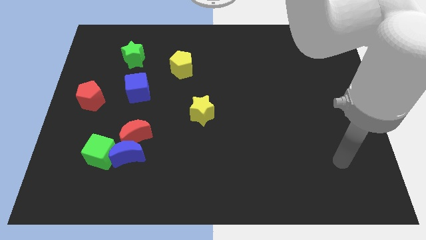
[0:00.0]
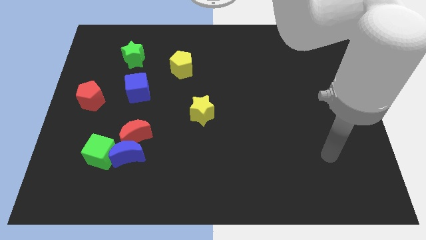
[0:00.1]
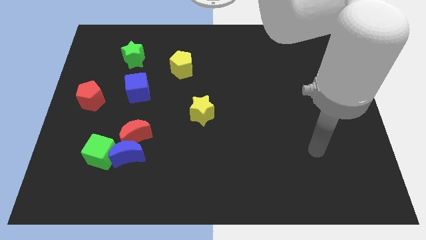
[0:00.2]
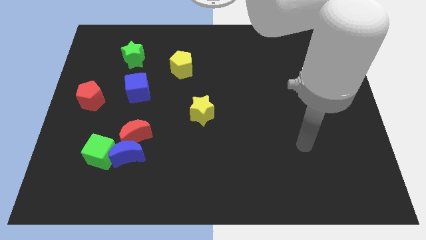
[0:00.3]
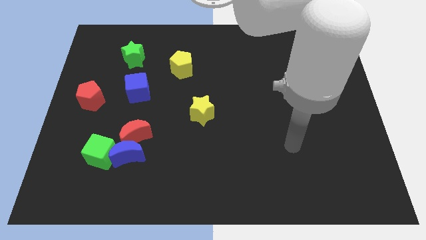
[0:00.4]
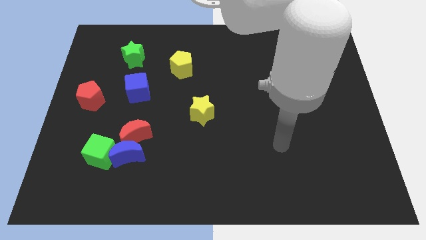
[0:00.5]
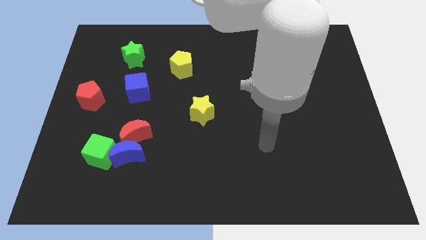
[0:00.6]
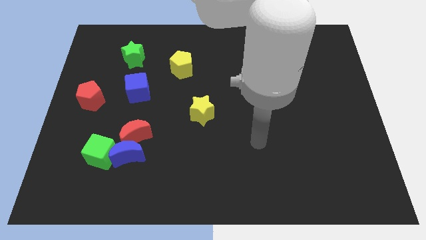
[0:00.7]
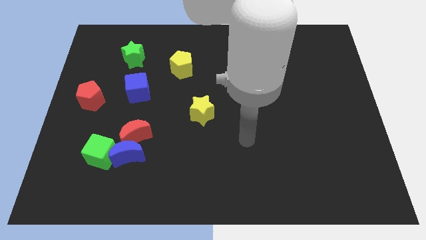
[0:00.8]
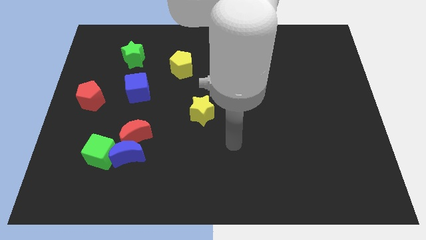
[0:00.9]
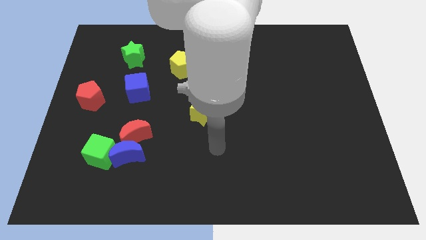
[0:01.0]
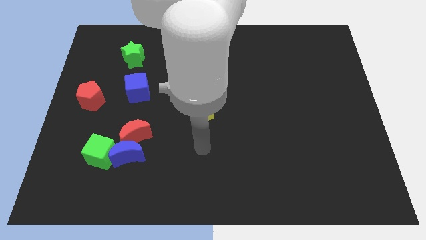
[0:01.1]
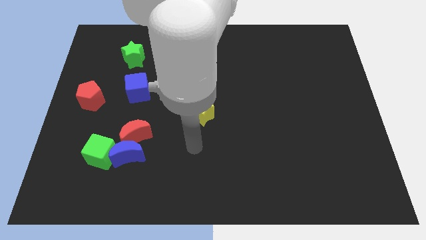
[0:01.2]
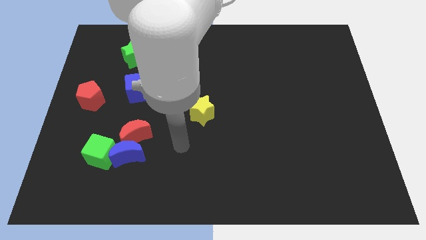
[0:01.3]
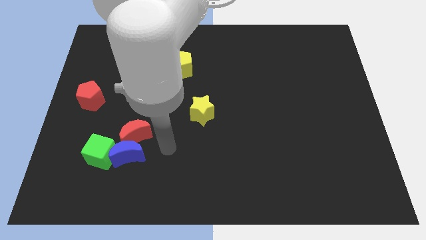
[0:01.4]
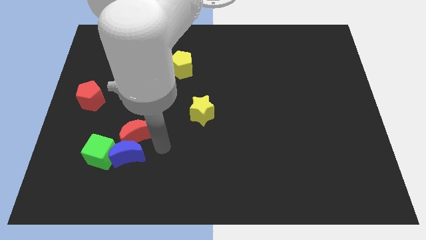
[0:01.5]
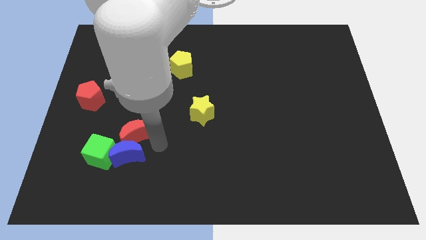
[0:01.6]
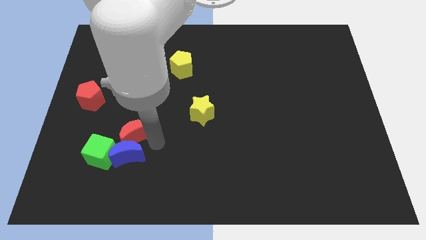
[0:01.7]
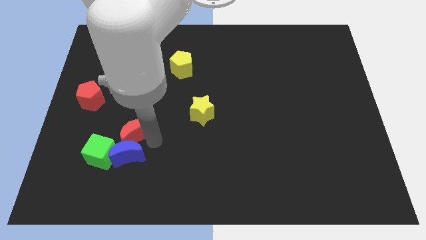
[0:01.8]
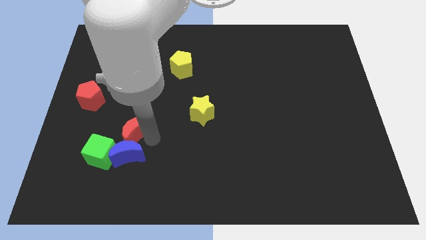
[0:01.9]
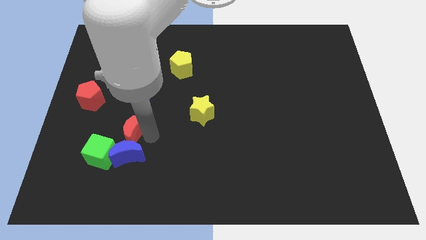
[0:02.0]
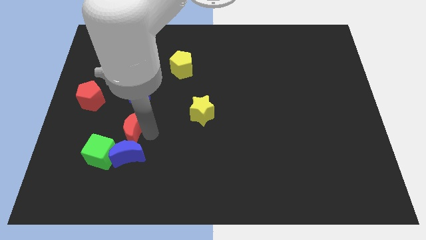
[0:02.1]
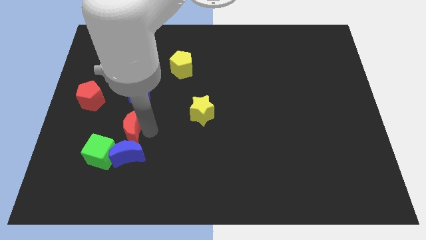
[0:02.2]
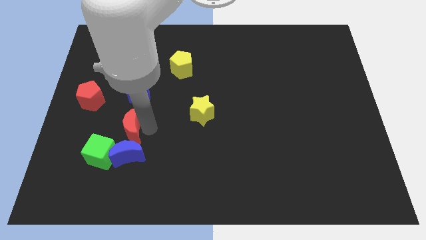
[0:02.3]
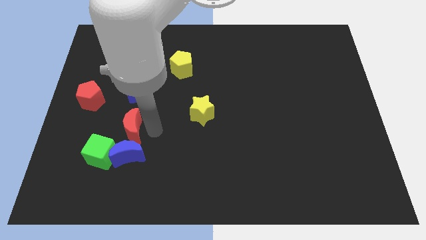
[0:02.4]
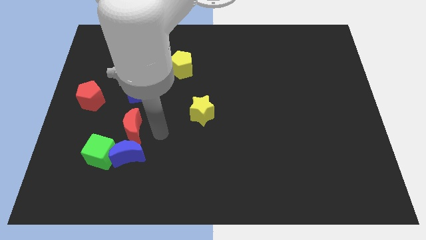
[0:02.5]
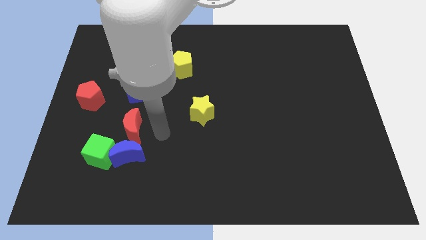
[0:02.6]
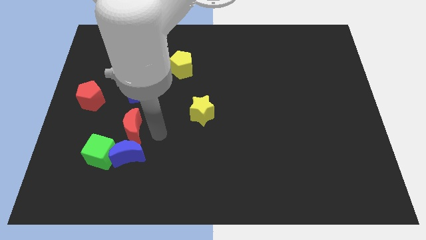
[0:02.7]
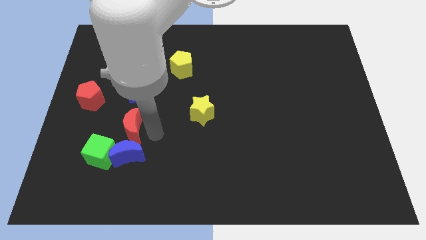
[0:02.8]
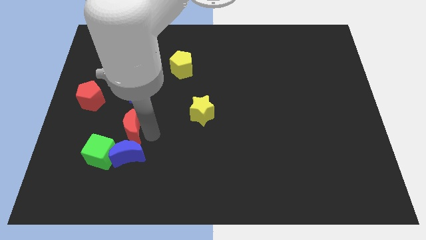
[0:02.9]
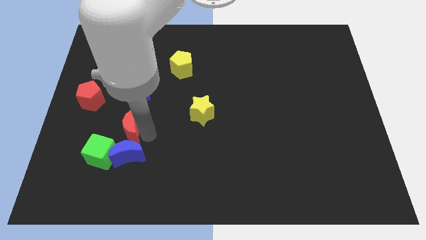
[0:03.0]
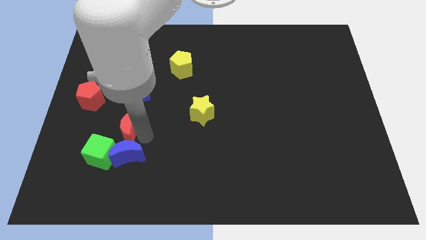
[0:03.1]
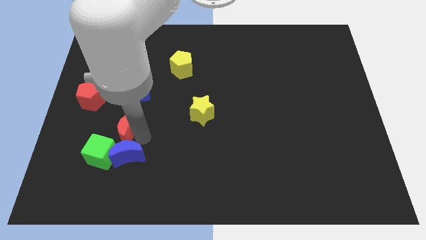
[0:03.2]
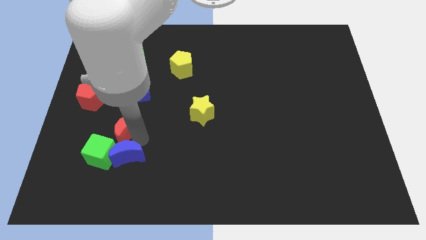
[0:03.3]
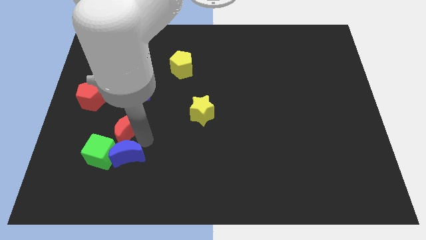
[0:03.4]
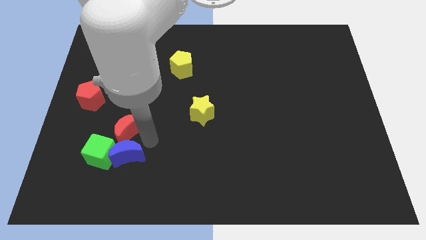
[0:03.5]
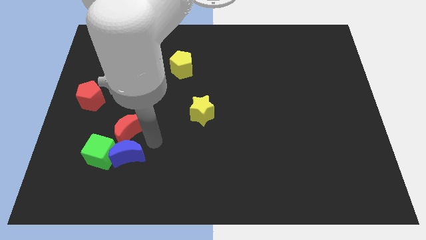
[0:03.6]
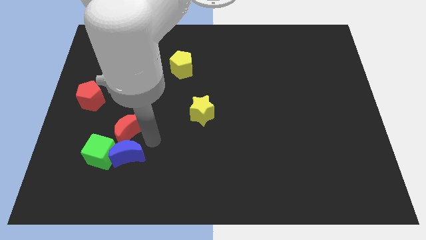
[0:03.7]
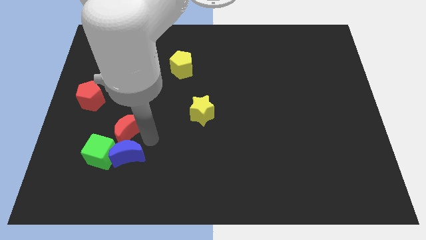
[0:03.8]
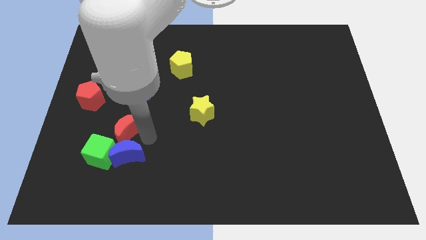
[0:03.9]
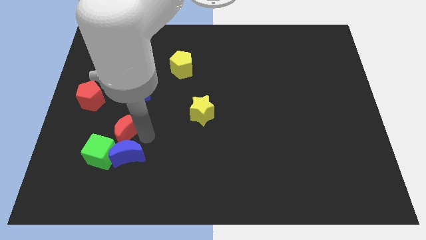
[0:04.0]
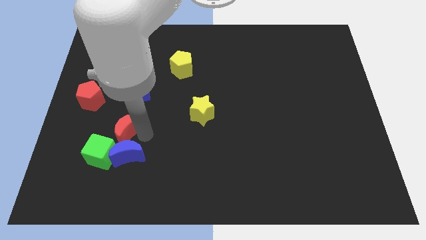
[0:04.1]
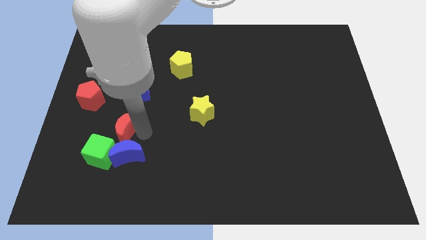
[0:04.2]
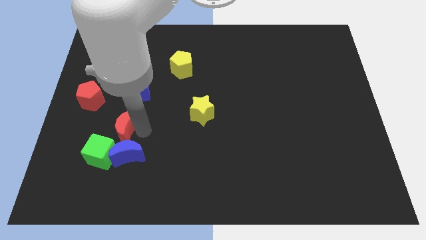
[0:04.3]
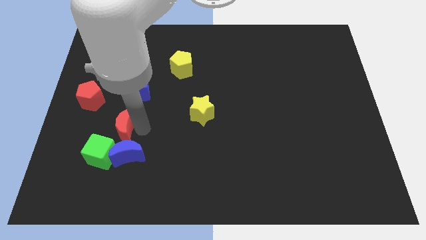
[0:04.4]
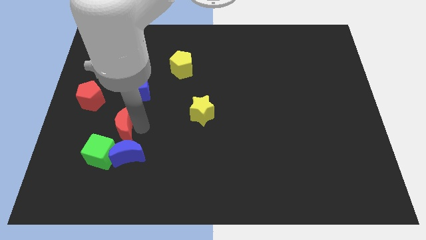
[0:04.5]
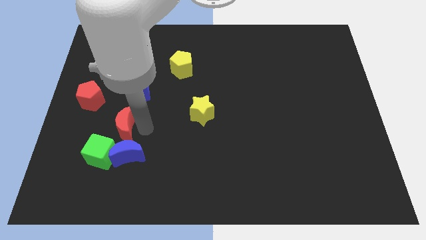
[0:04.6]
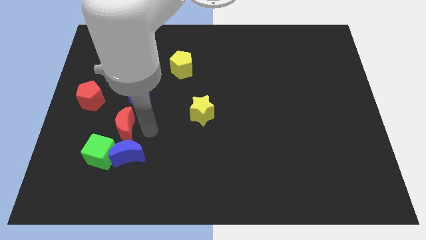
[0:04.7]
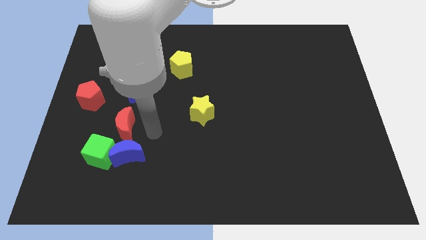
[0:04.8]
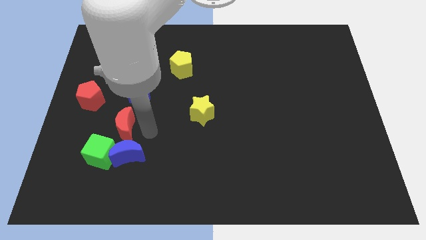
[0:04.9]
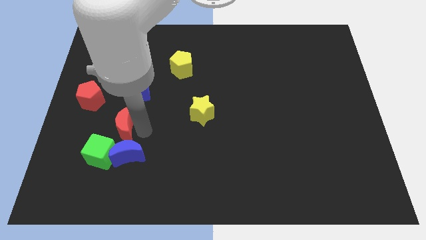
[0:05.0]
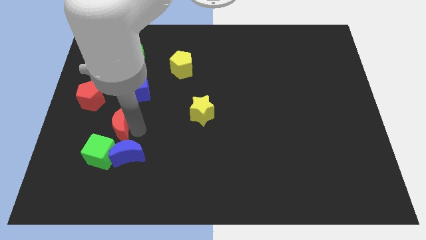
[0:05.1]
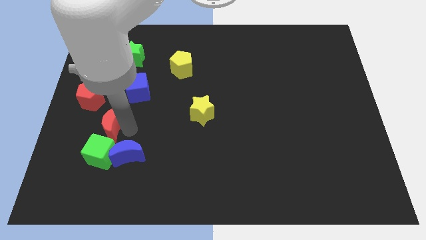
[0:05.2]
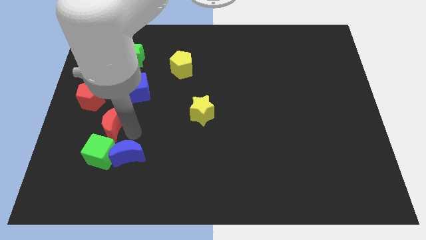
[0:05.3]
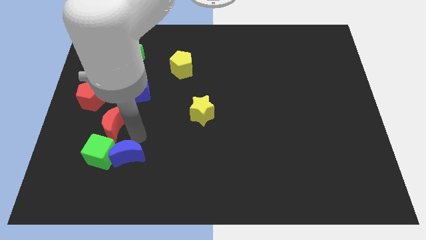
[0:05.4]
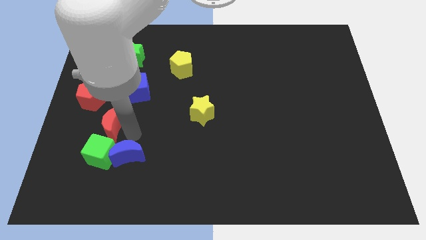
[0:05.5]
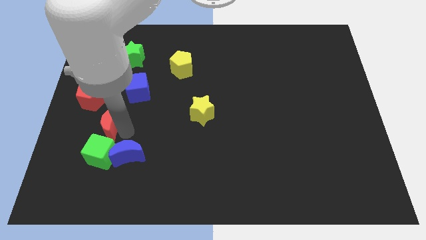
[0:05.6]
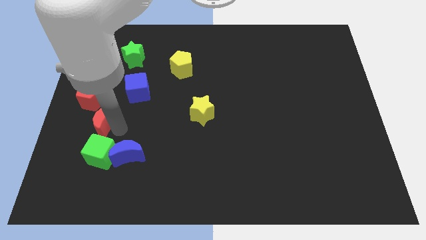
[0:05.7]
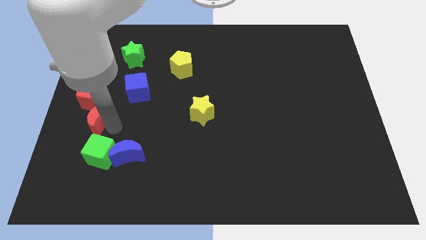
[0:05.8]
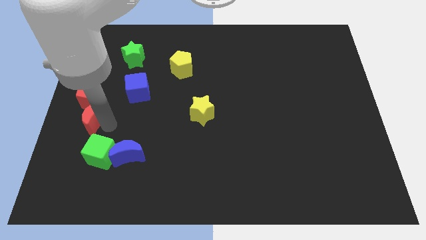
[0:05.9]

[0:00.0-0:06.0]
slide the red moon to the left side of the board

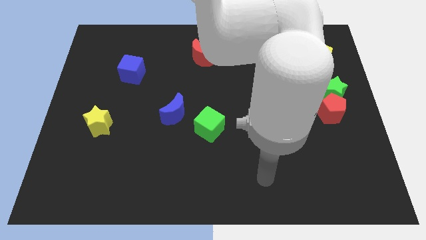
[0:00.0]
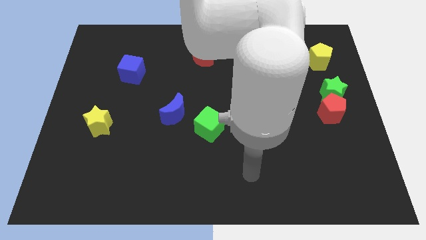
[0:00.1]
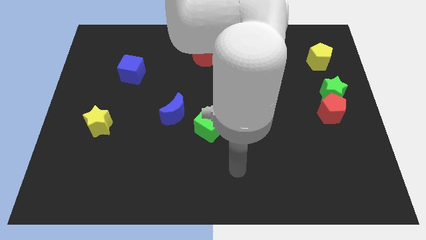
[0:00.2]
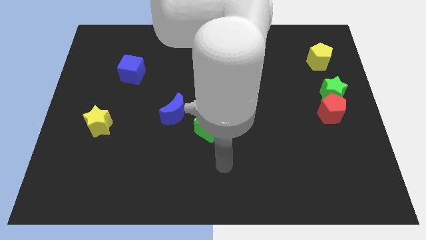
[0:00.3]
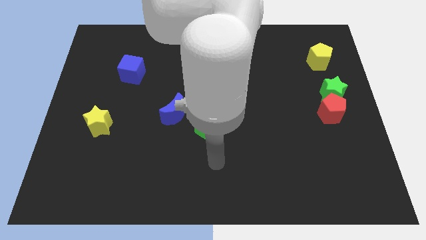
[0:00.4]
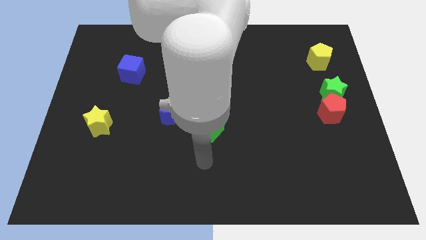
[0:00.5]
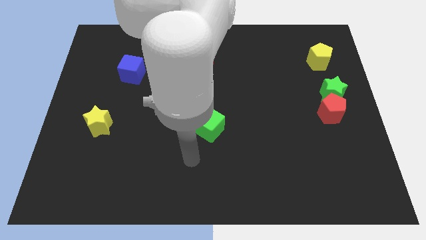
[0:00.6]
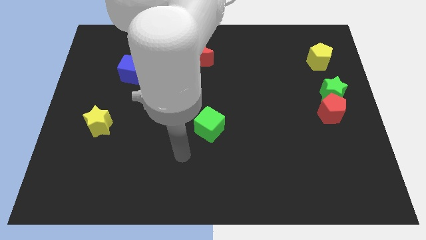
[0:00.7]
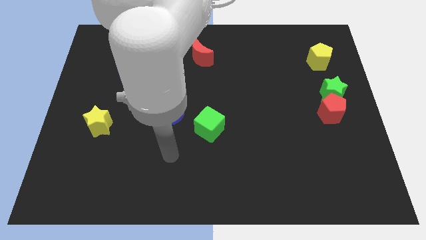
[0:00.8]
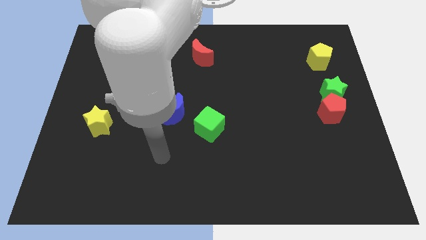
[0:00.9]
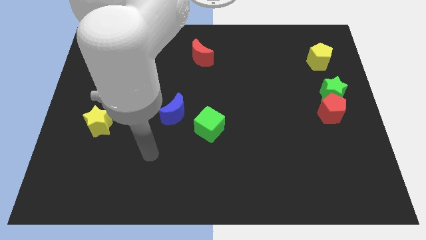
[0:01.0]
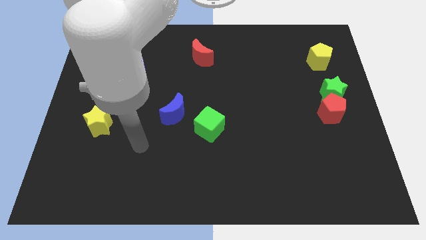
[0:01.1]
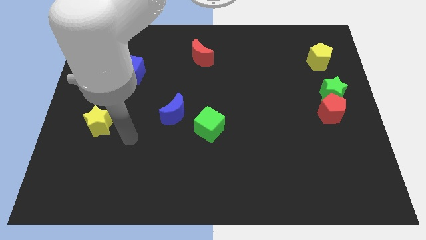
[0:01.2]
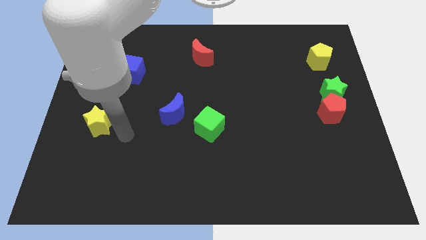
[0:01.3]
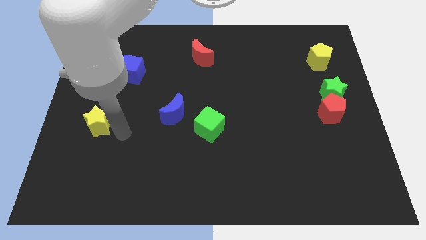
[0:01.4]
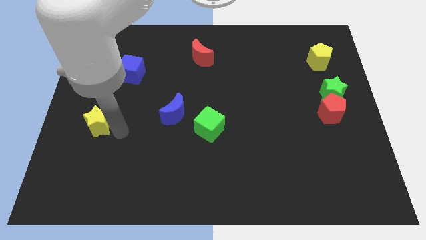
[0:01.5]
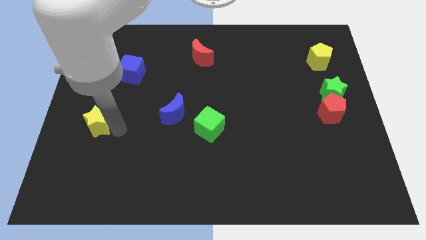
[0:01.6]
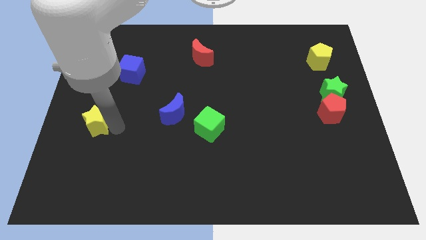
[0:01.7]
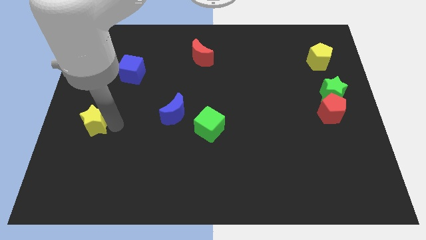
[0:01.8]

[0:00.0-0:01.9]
move the yellow star to the left side
